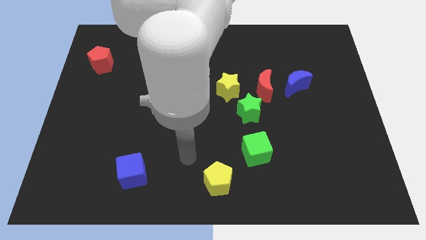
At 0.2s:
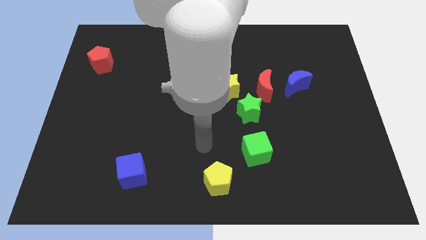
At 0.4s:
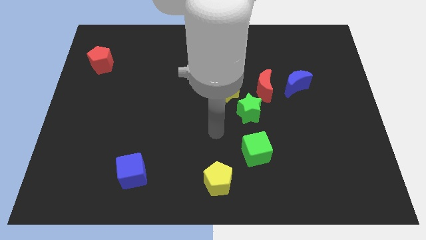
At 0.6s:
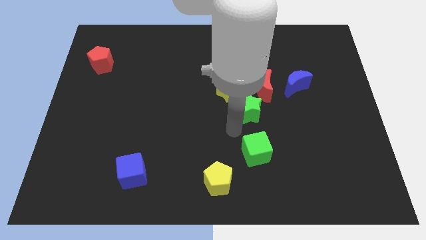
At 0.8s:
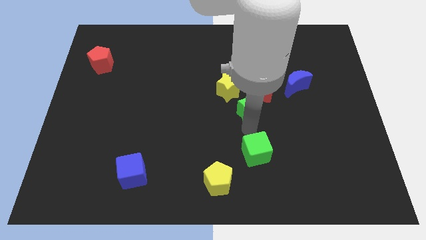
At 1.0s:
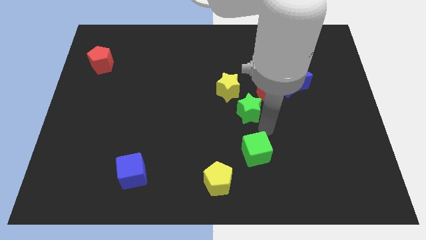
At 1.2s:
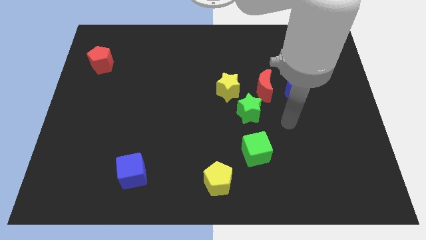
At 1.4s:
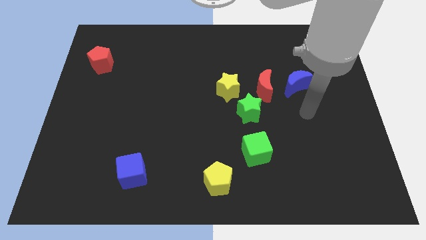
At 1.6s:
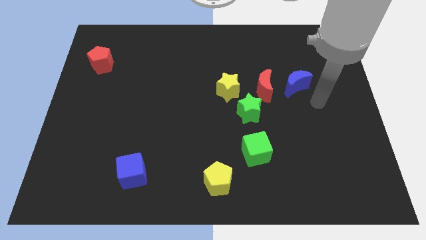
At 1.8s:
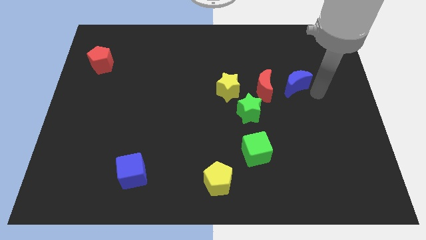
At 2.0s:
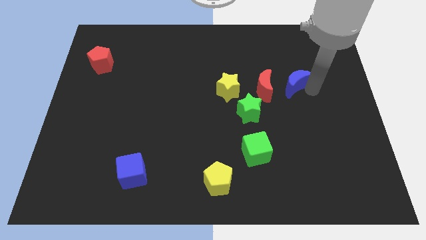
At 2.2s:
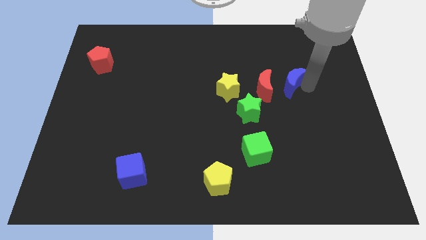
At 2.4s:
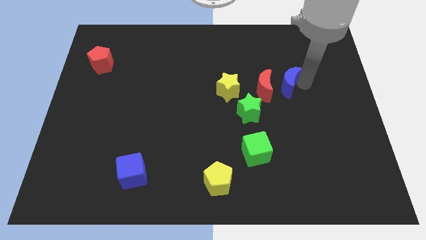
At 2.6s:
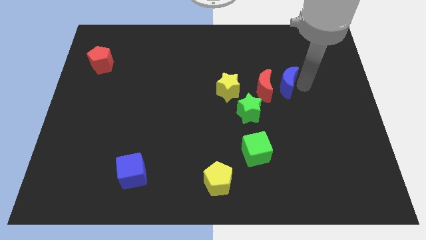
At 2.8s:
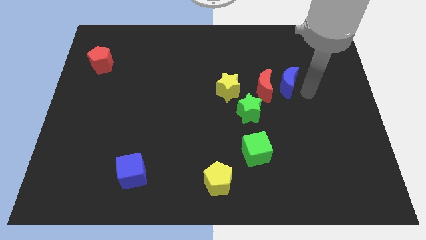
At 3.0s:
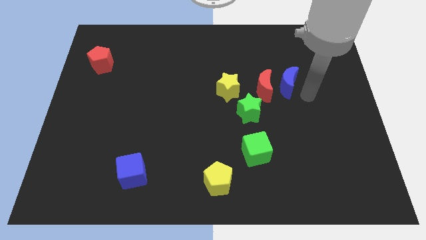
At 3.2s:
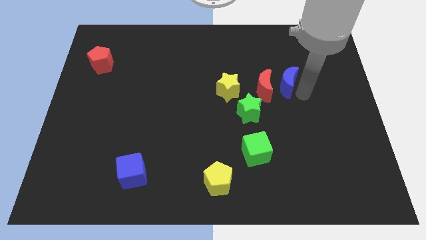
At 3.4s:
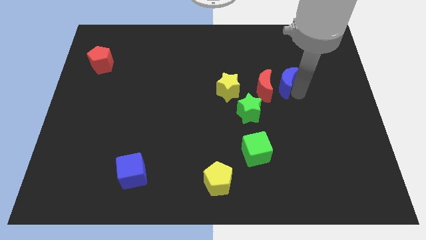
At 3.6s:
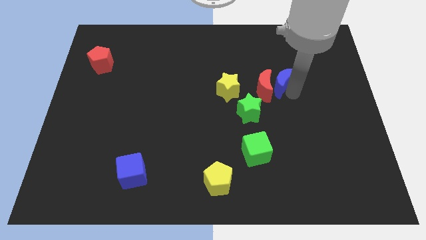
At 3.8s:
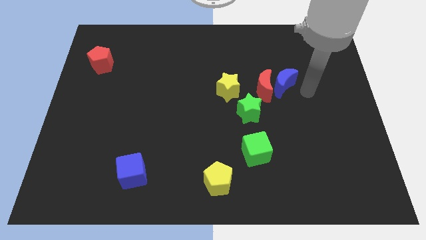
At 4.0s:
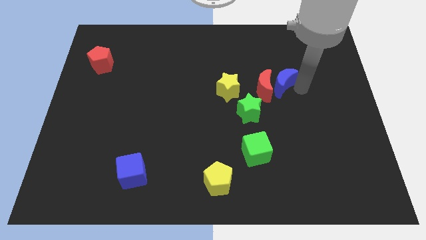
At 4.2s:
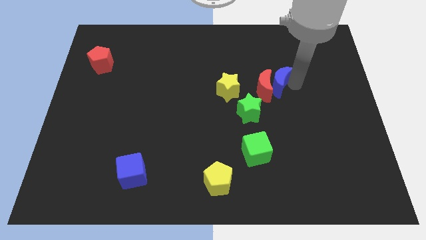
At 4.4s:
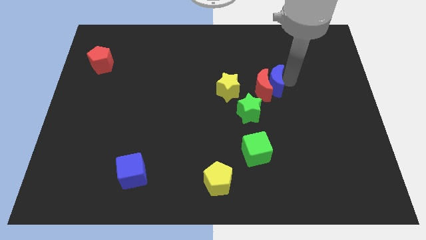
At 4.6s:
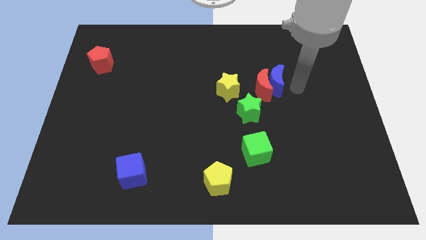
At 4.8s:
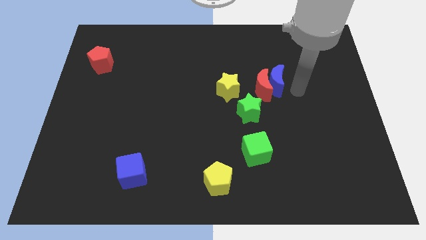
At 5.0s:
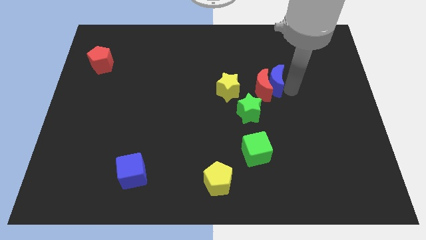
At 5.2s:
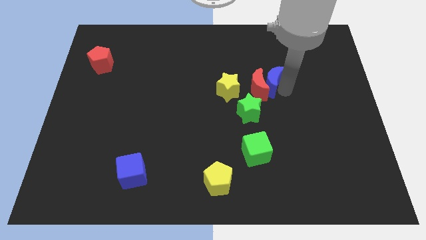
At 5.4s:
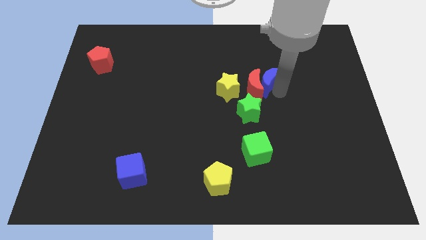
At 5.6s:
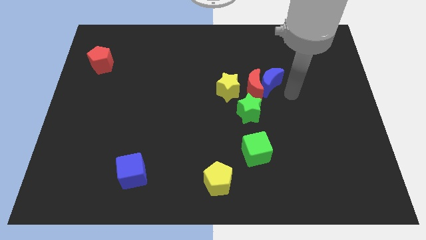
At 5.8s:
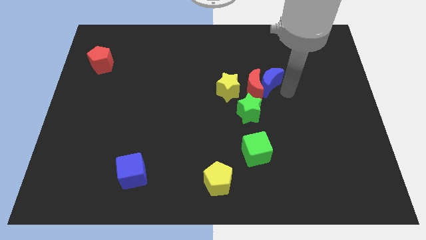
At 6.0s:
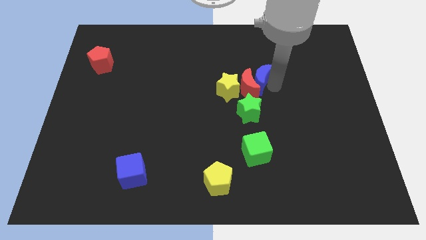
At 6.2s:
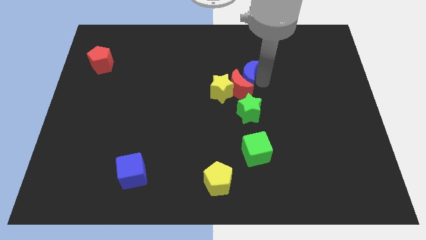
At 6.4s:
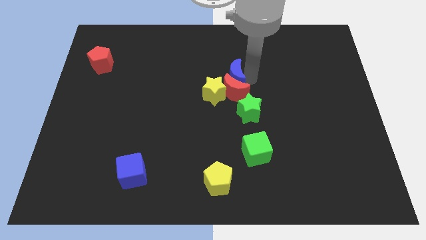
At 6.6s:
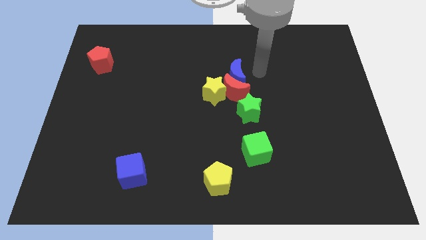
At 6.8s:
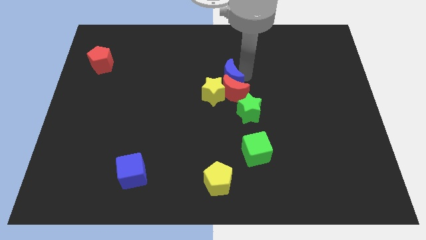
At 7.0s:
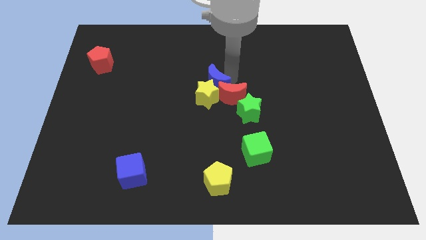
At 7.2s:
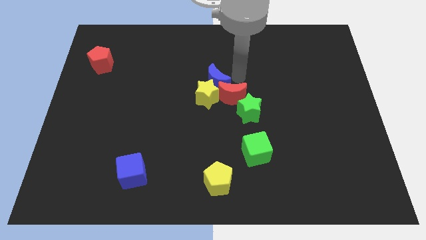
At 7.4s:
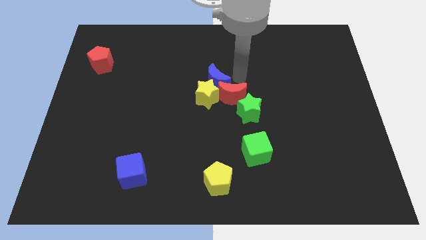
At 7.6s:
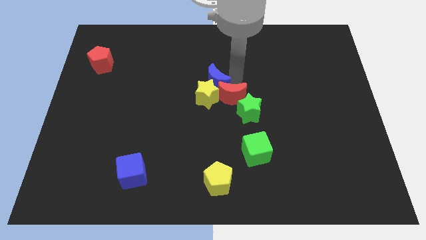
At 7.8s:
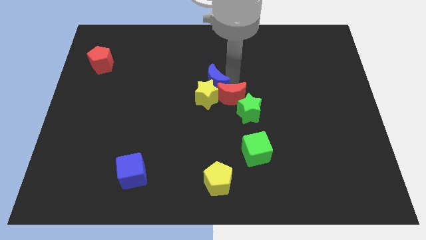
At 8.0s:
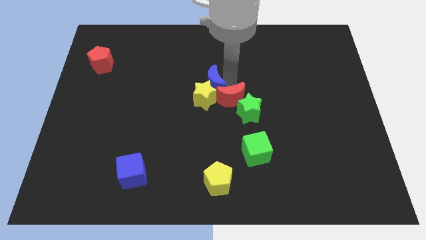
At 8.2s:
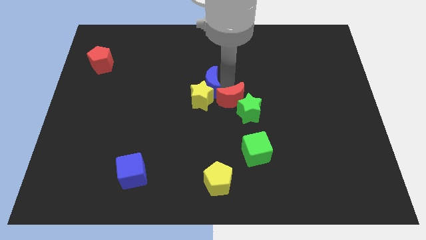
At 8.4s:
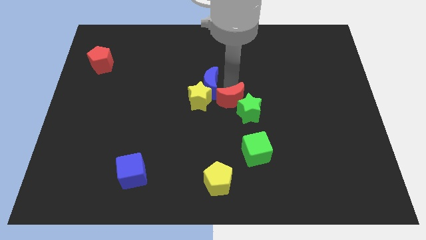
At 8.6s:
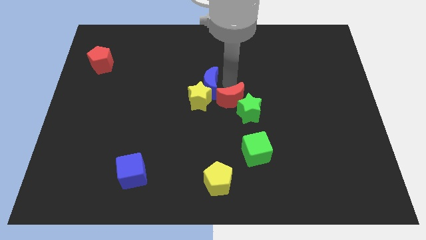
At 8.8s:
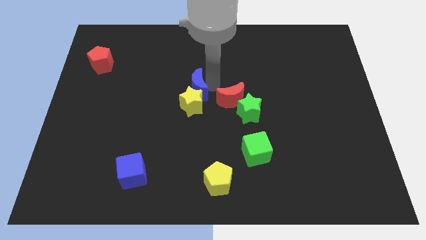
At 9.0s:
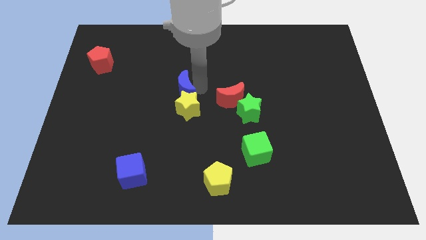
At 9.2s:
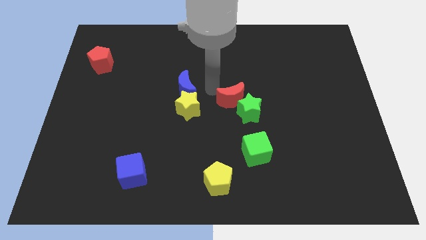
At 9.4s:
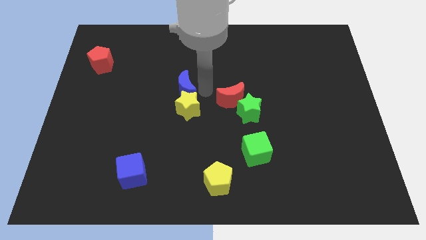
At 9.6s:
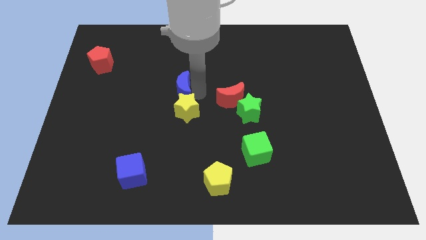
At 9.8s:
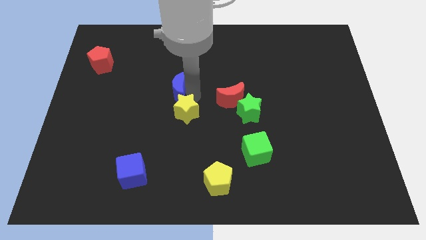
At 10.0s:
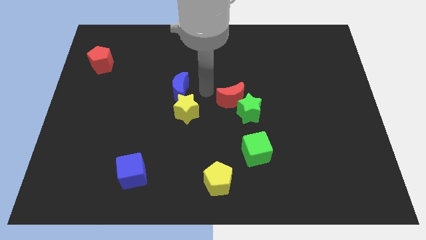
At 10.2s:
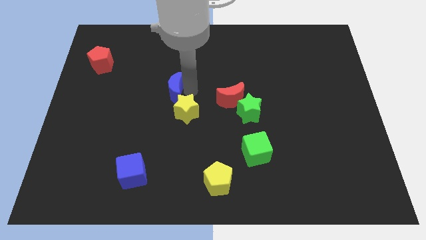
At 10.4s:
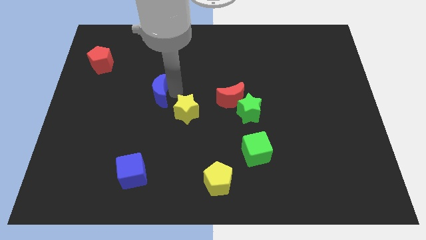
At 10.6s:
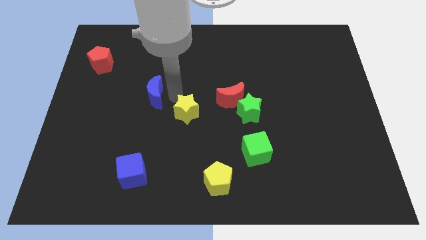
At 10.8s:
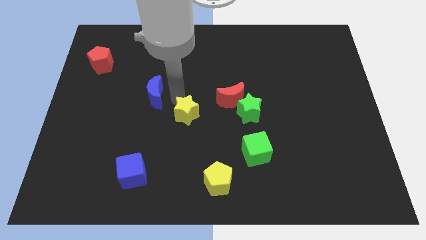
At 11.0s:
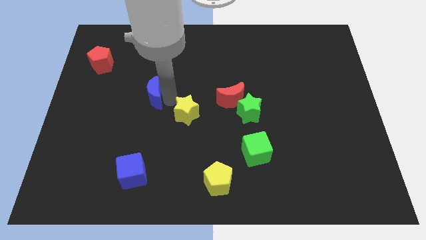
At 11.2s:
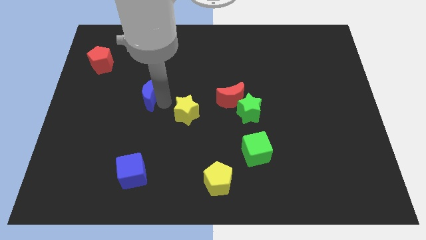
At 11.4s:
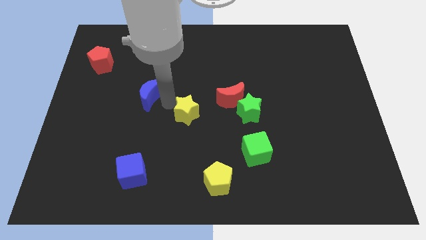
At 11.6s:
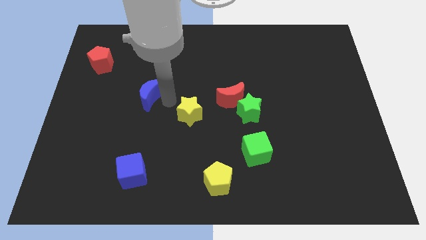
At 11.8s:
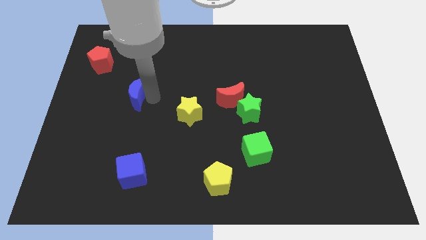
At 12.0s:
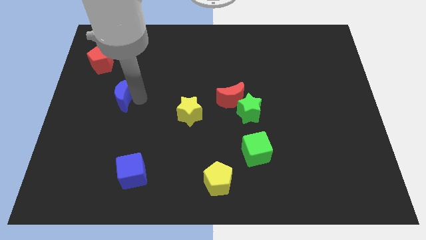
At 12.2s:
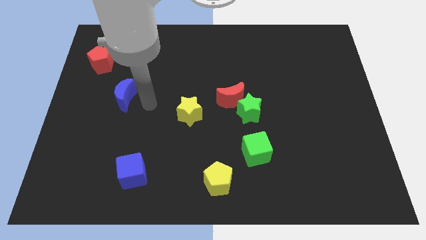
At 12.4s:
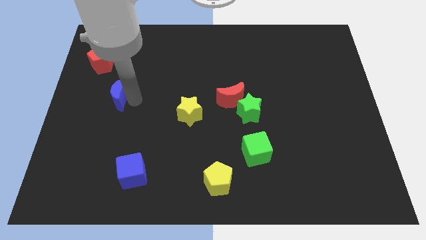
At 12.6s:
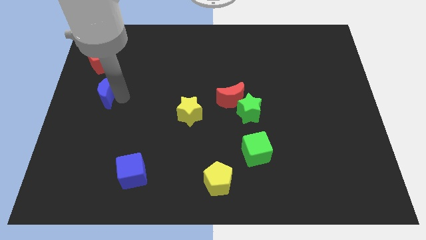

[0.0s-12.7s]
slide the blue moon to the left side
